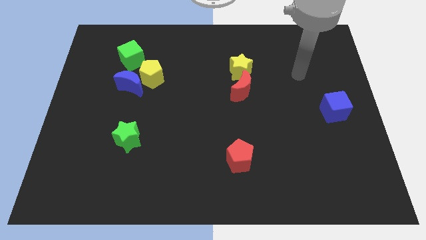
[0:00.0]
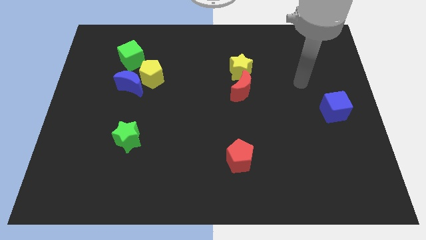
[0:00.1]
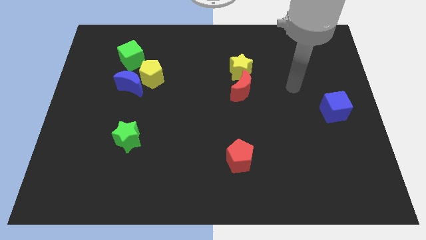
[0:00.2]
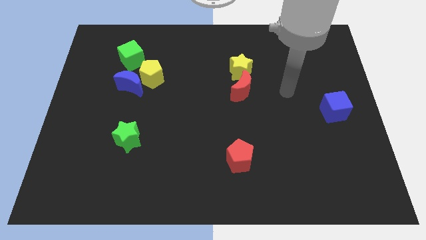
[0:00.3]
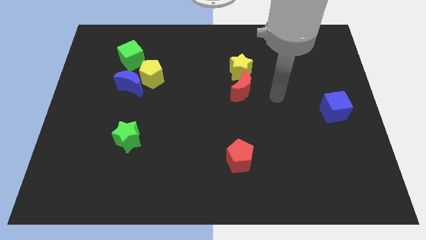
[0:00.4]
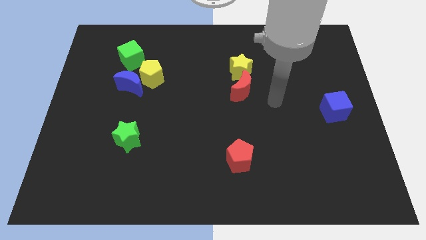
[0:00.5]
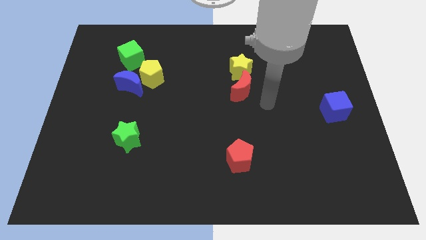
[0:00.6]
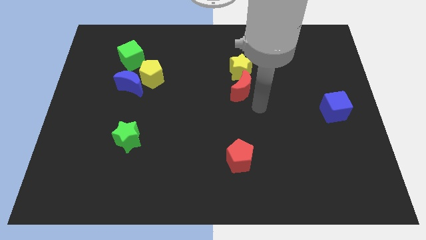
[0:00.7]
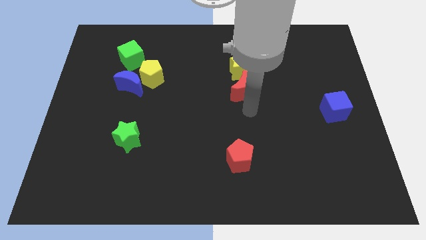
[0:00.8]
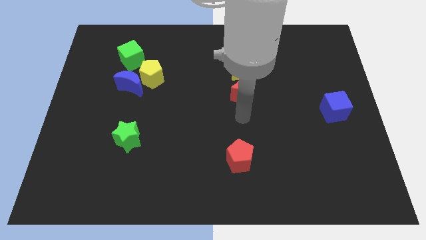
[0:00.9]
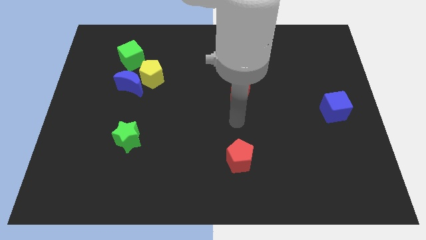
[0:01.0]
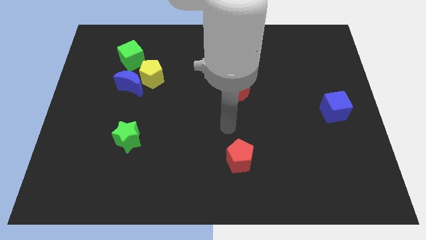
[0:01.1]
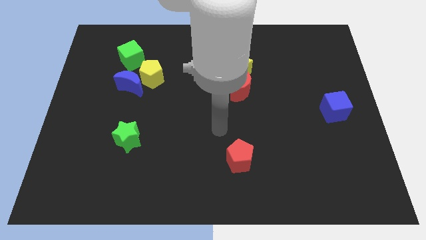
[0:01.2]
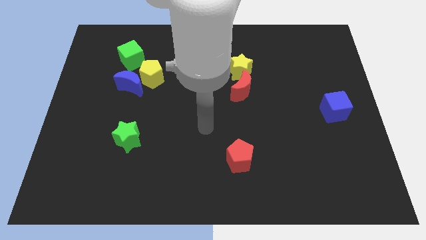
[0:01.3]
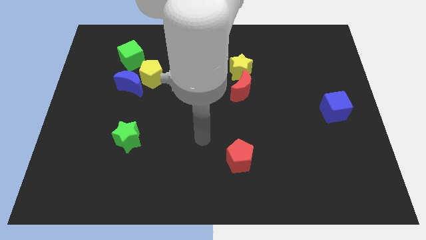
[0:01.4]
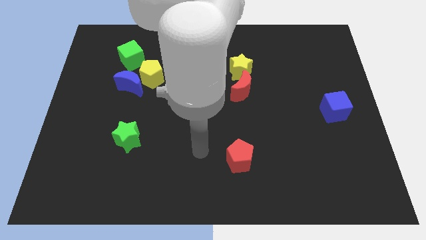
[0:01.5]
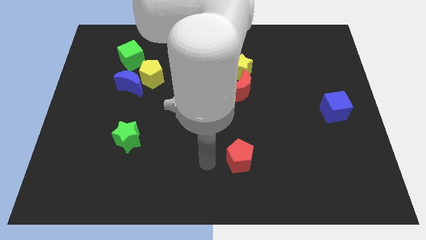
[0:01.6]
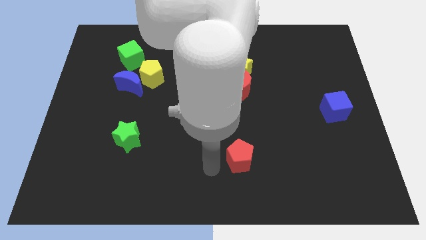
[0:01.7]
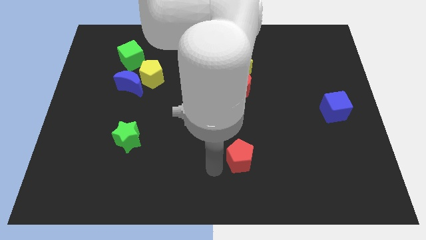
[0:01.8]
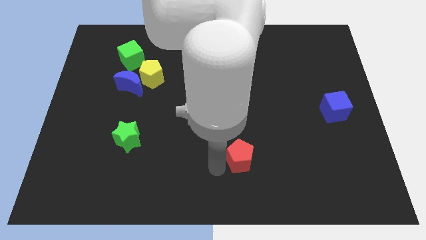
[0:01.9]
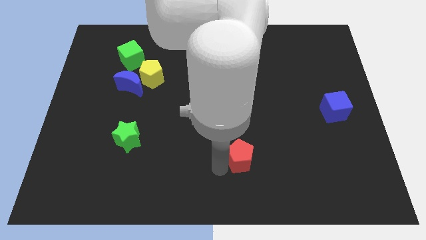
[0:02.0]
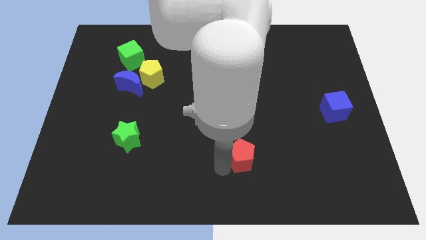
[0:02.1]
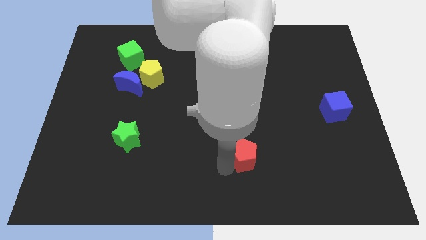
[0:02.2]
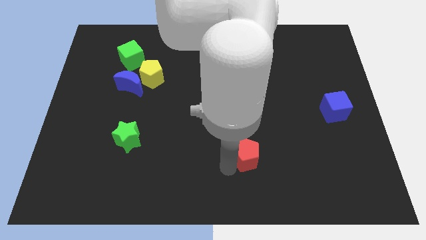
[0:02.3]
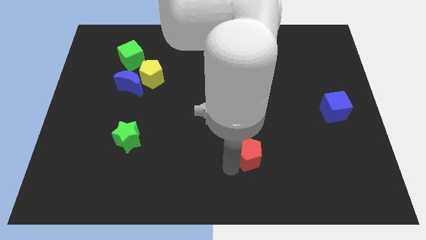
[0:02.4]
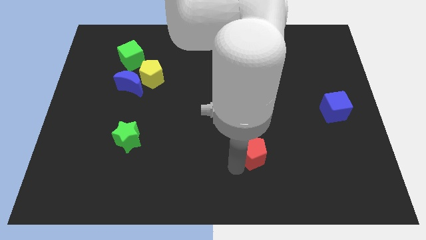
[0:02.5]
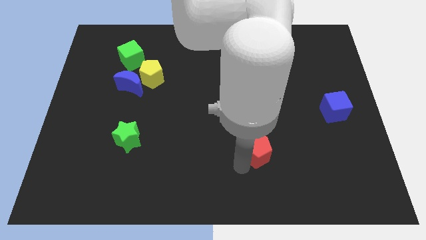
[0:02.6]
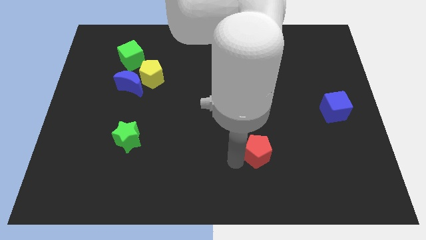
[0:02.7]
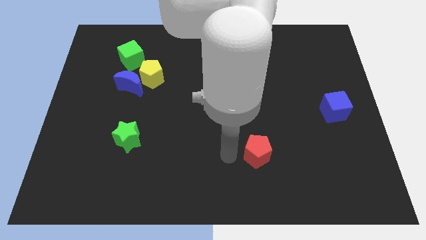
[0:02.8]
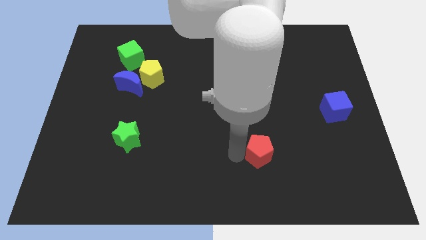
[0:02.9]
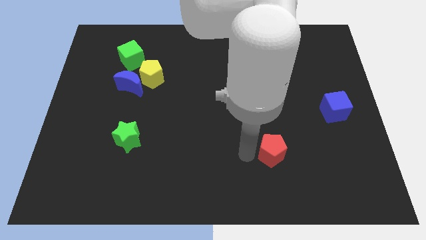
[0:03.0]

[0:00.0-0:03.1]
slightly push the red pentagon to the right

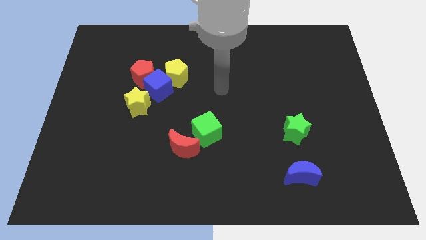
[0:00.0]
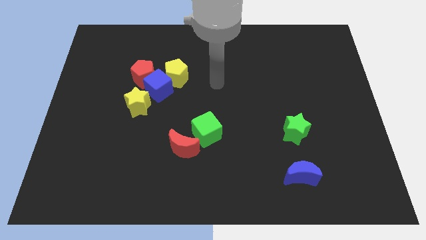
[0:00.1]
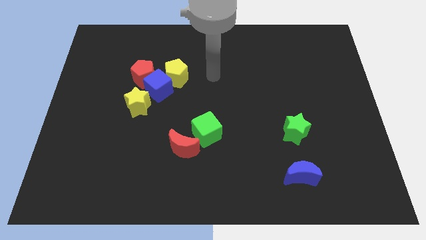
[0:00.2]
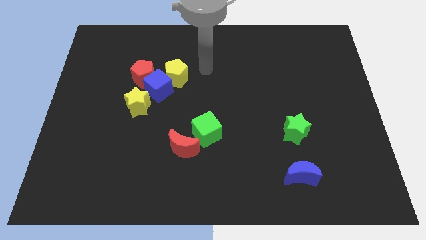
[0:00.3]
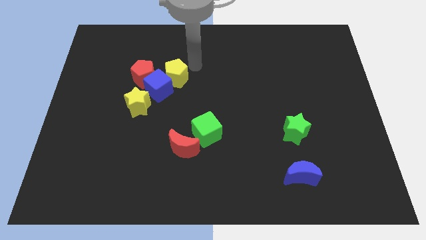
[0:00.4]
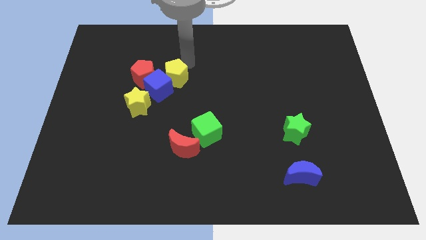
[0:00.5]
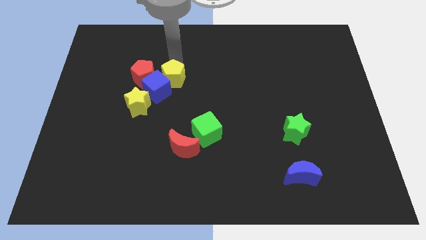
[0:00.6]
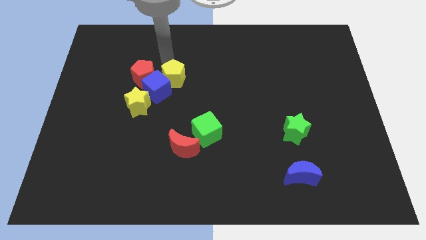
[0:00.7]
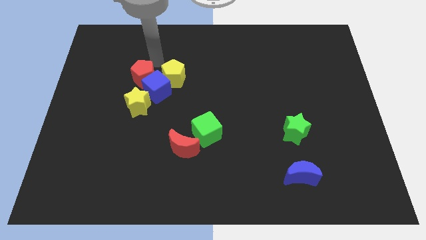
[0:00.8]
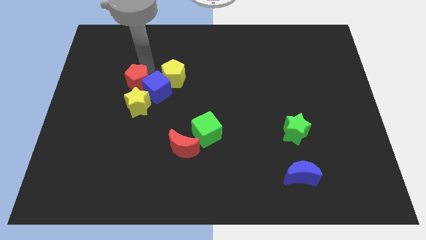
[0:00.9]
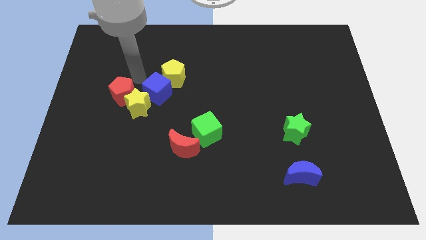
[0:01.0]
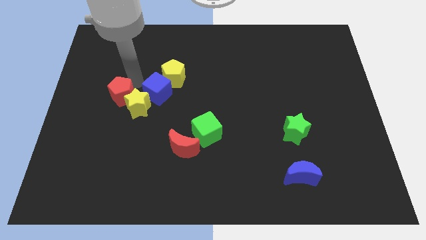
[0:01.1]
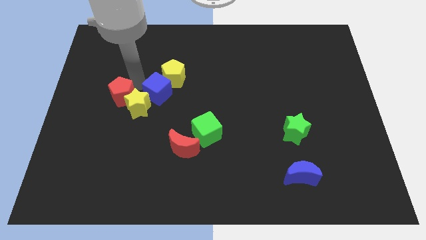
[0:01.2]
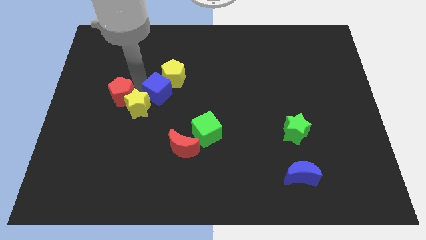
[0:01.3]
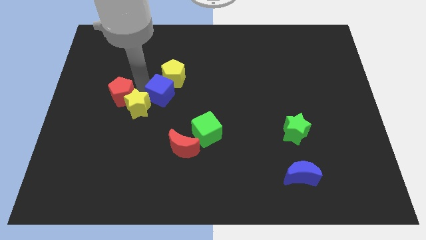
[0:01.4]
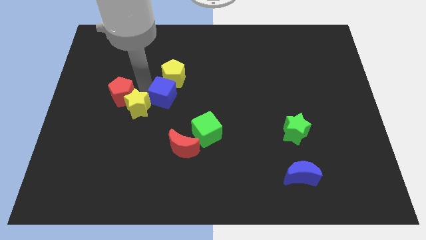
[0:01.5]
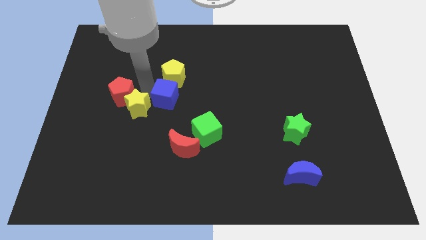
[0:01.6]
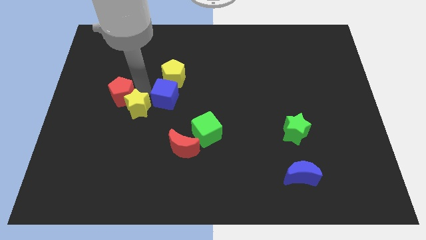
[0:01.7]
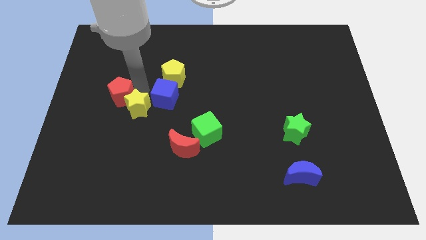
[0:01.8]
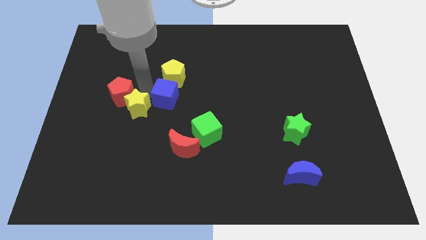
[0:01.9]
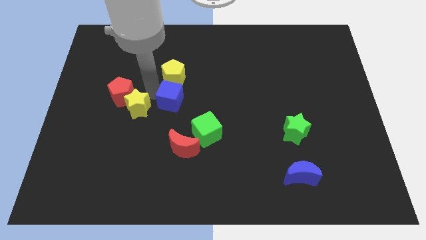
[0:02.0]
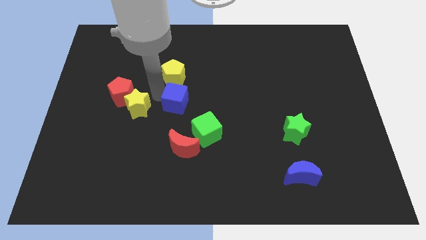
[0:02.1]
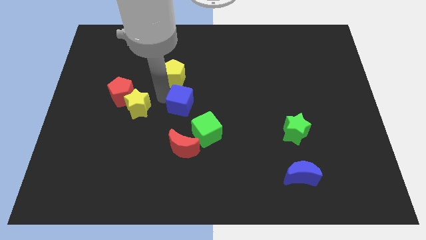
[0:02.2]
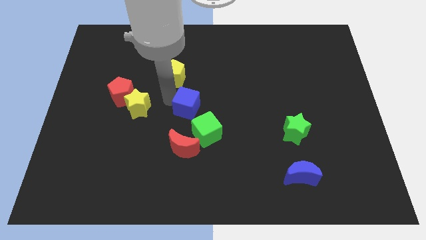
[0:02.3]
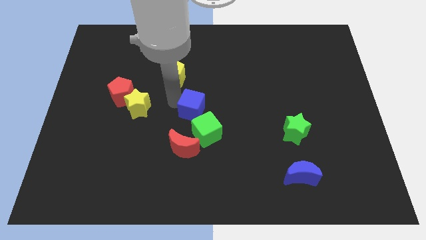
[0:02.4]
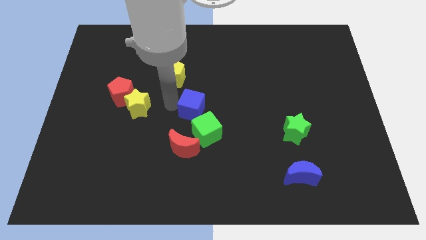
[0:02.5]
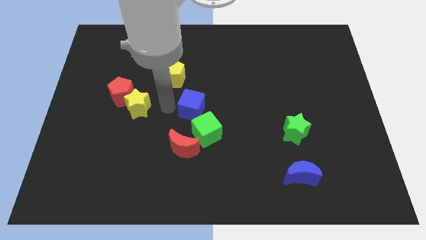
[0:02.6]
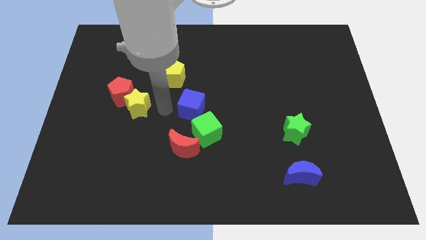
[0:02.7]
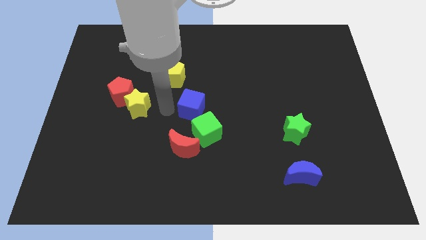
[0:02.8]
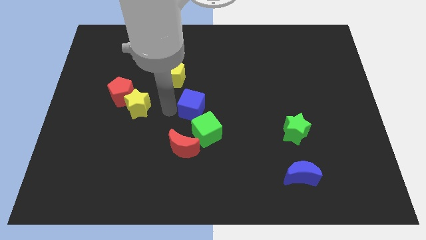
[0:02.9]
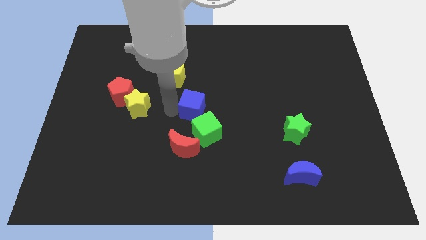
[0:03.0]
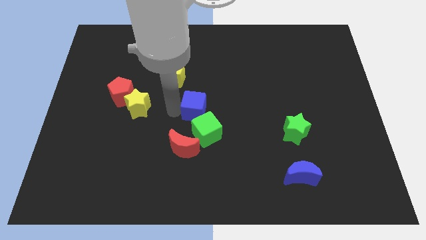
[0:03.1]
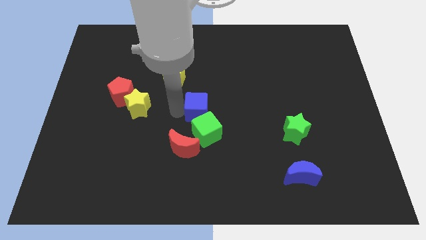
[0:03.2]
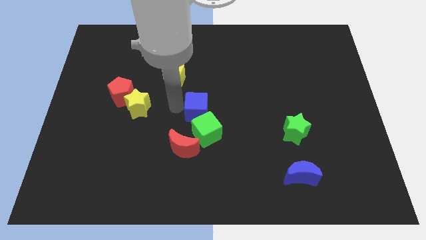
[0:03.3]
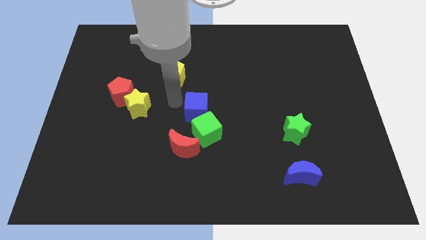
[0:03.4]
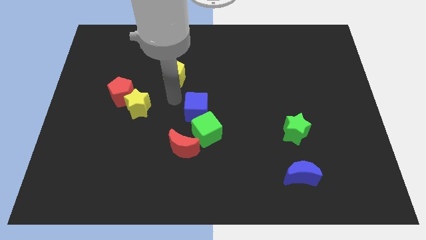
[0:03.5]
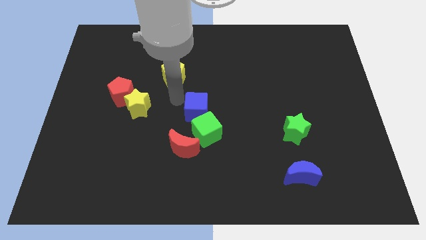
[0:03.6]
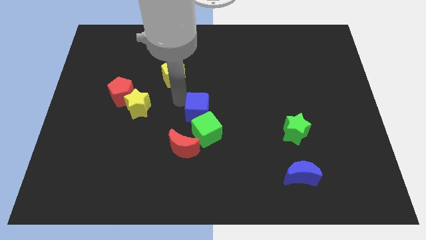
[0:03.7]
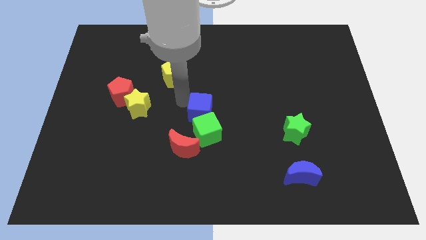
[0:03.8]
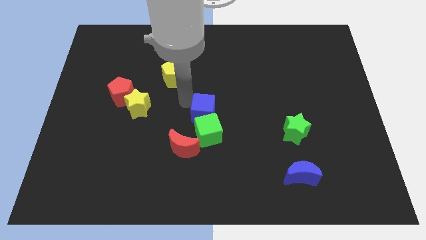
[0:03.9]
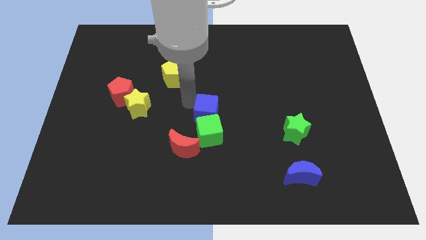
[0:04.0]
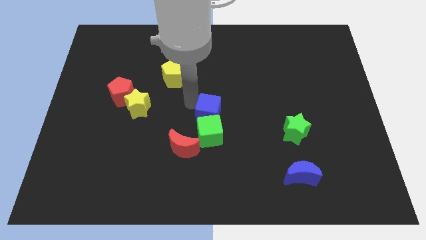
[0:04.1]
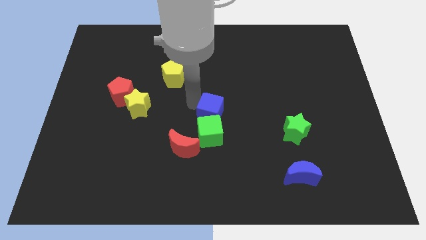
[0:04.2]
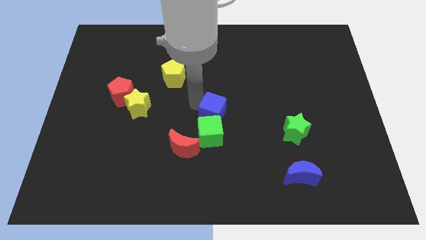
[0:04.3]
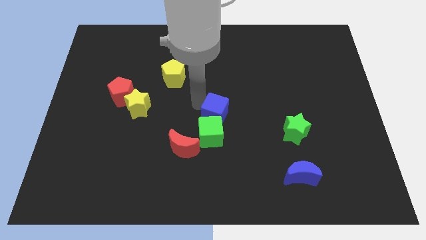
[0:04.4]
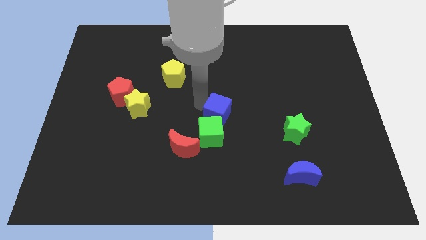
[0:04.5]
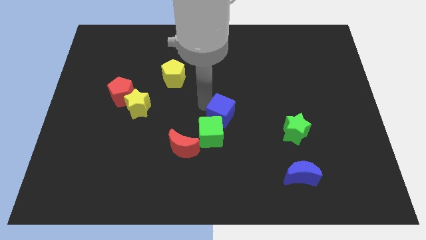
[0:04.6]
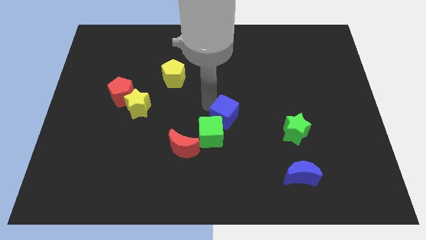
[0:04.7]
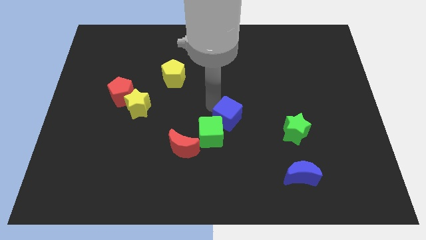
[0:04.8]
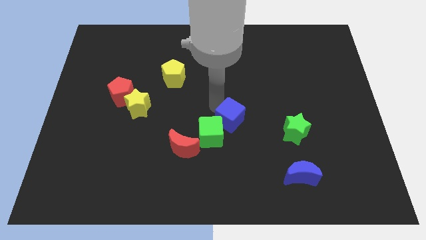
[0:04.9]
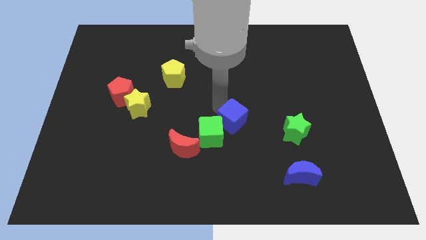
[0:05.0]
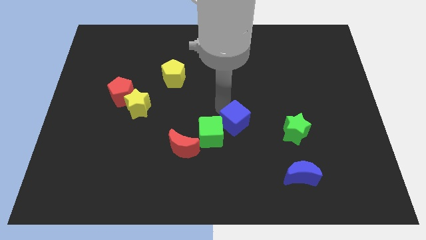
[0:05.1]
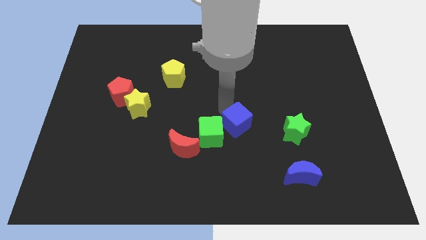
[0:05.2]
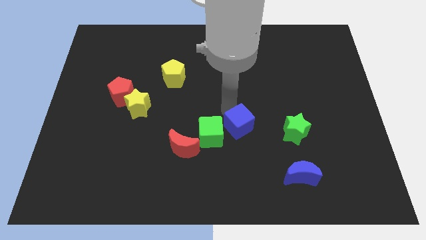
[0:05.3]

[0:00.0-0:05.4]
push the blue cube down and right

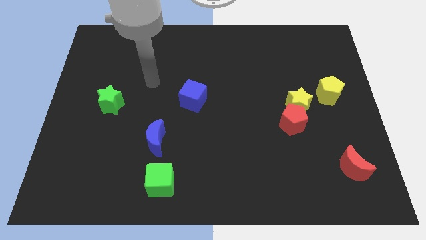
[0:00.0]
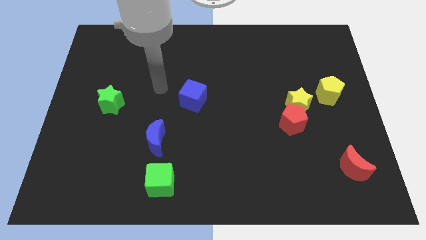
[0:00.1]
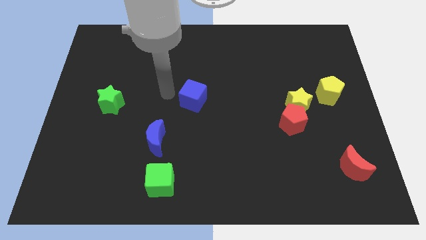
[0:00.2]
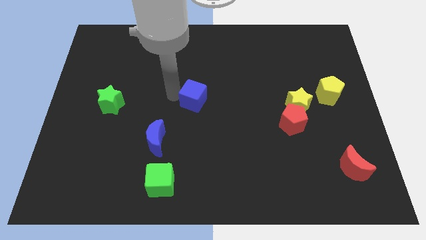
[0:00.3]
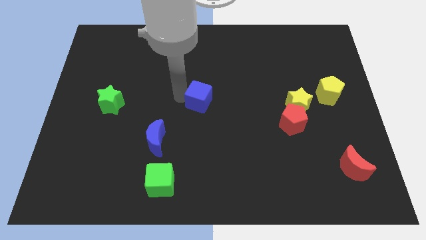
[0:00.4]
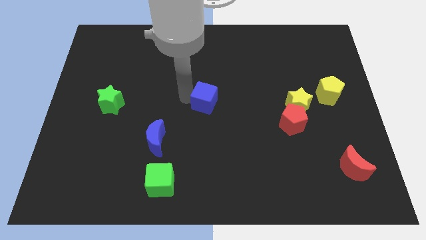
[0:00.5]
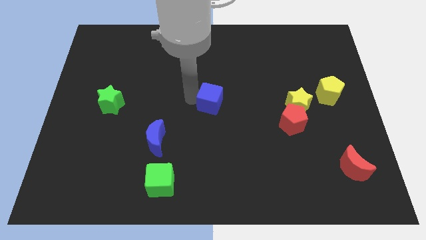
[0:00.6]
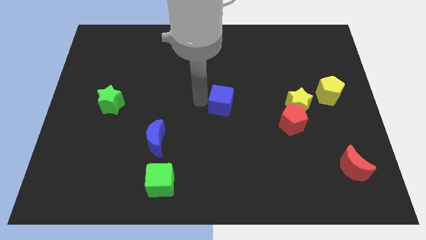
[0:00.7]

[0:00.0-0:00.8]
slightly slide the blue cube to the right
